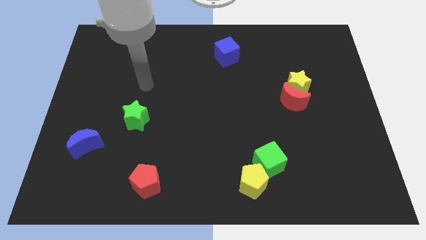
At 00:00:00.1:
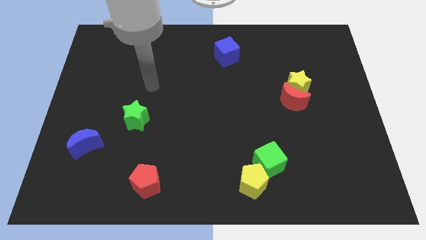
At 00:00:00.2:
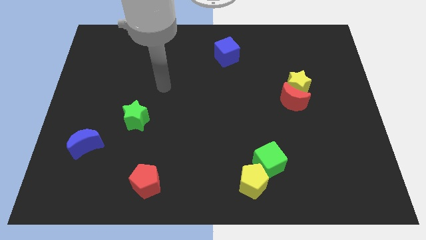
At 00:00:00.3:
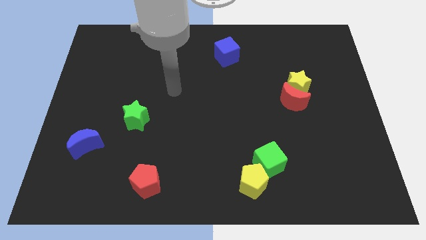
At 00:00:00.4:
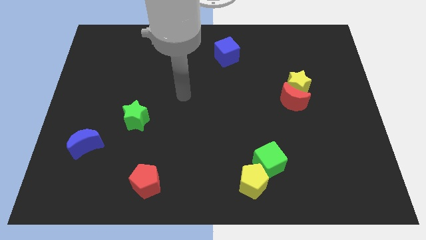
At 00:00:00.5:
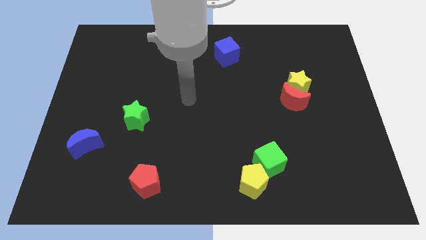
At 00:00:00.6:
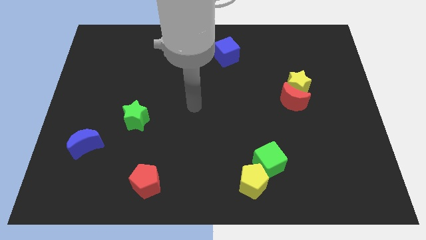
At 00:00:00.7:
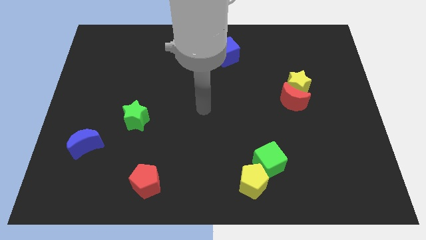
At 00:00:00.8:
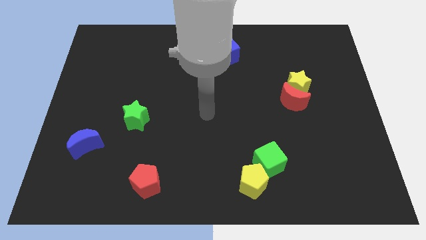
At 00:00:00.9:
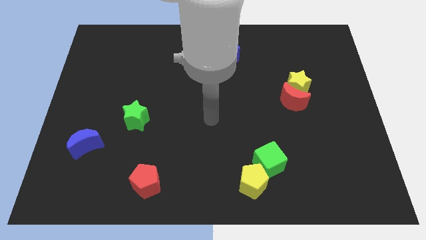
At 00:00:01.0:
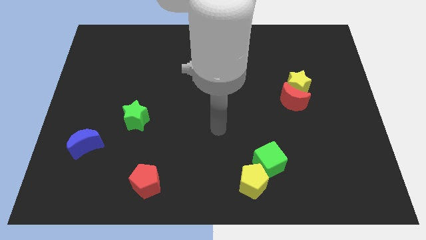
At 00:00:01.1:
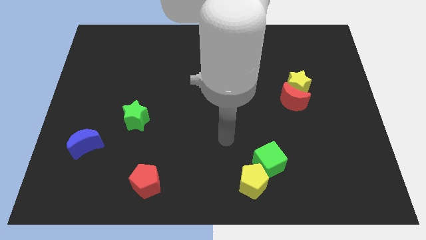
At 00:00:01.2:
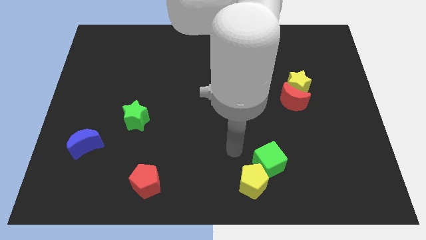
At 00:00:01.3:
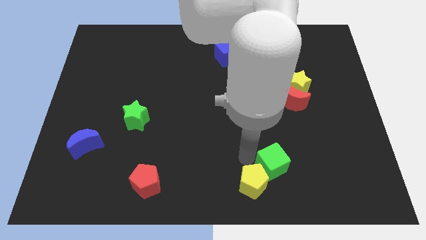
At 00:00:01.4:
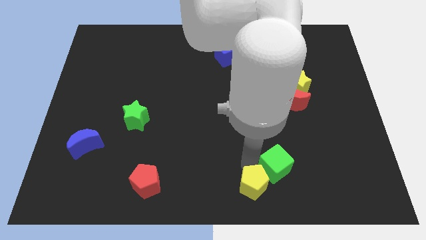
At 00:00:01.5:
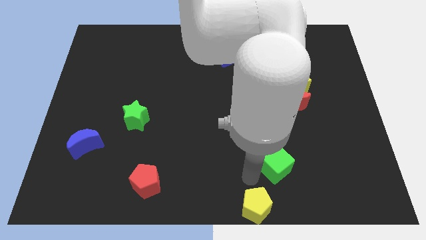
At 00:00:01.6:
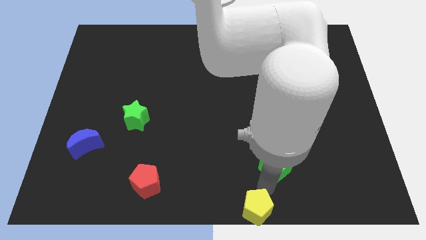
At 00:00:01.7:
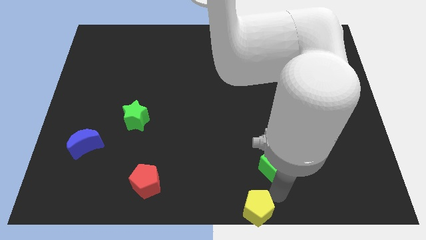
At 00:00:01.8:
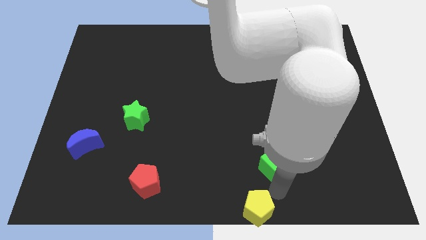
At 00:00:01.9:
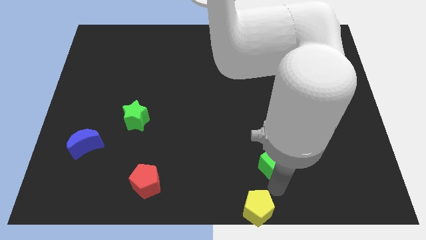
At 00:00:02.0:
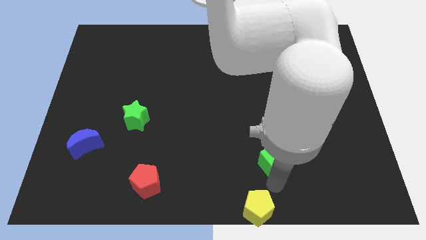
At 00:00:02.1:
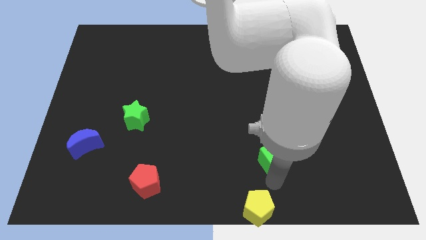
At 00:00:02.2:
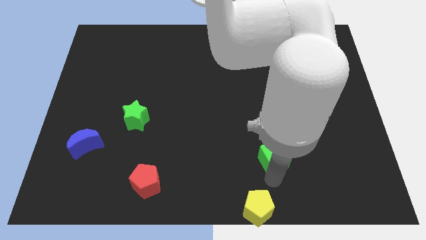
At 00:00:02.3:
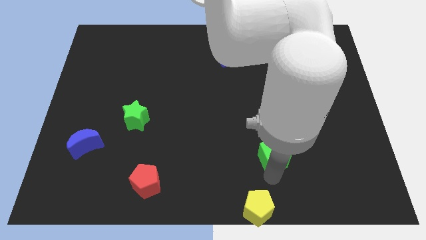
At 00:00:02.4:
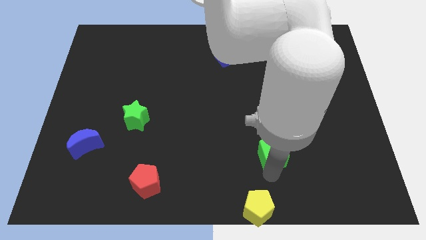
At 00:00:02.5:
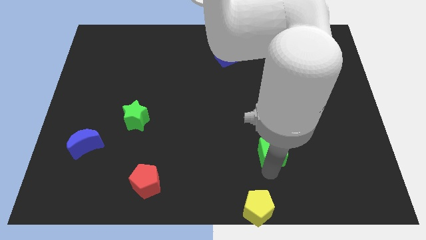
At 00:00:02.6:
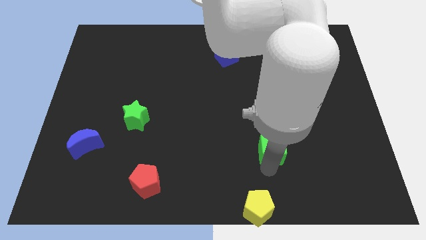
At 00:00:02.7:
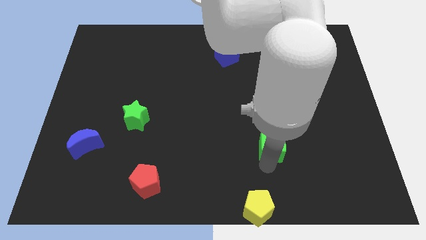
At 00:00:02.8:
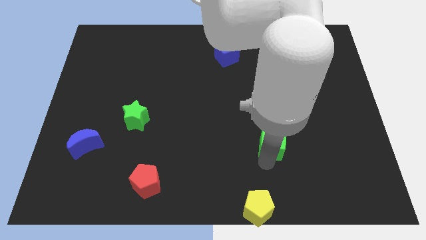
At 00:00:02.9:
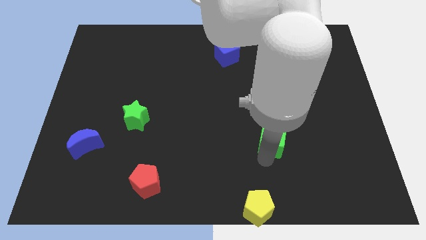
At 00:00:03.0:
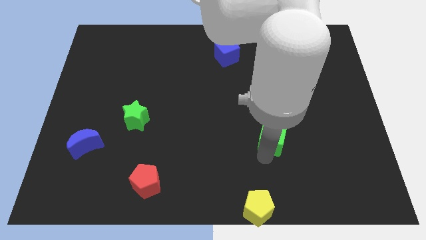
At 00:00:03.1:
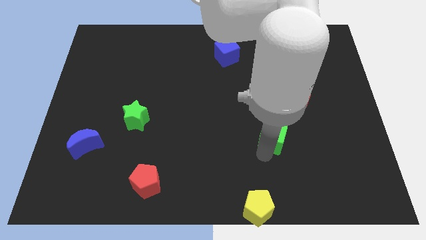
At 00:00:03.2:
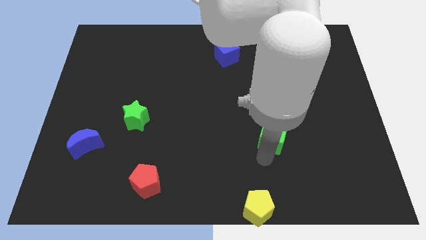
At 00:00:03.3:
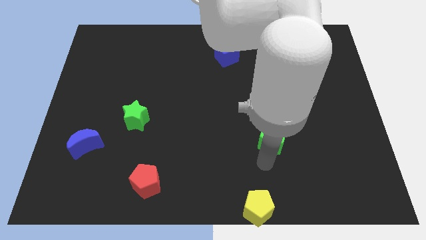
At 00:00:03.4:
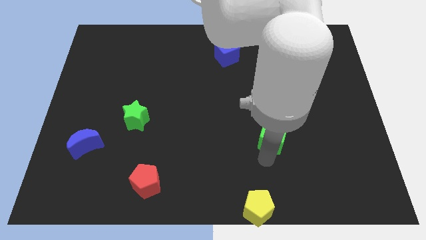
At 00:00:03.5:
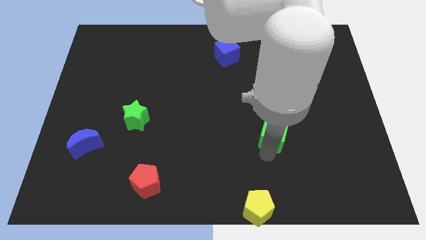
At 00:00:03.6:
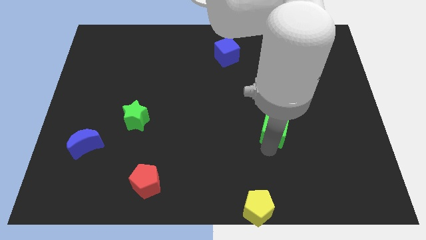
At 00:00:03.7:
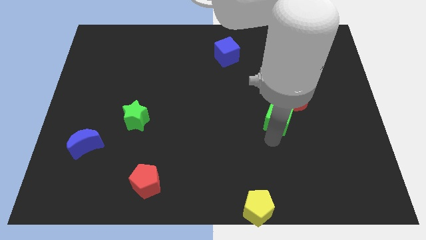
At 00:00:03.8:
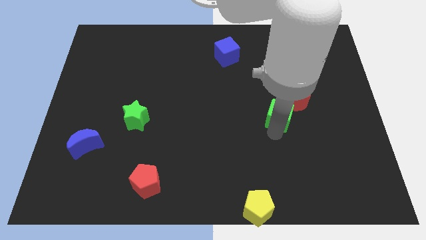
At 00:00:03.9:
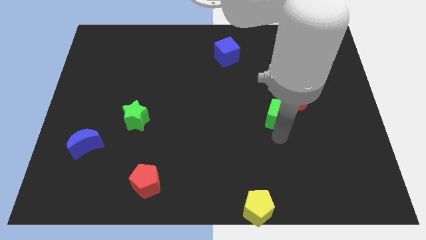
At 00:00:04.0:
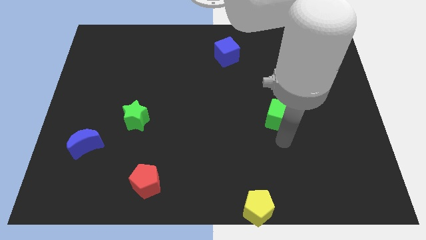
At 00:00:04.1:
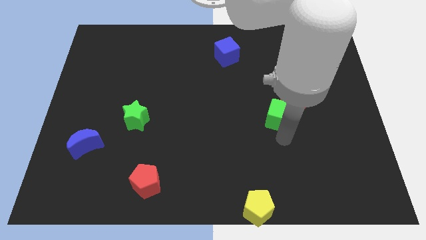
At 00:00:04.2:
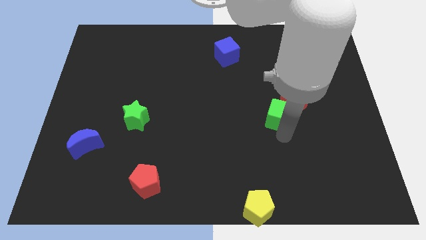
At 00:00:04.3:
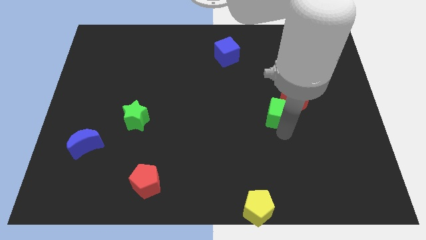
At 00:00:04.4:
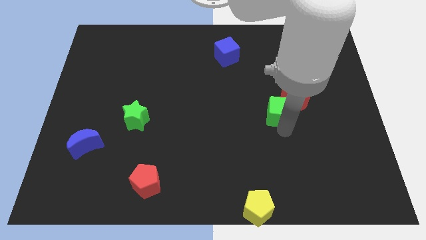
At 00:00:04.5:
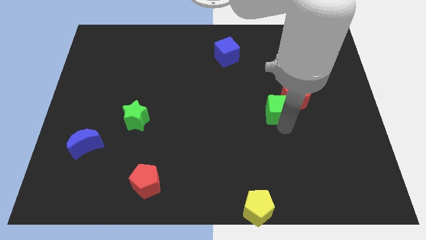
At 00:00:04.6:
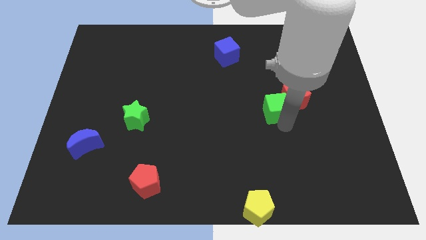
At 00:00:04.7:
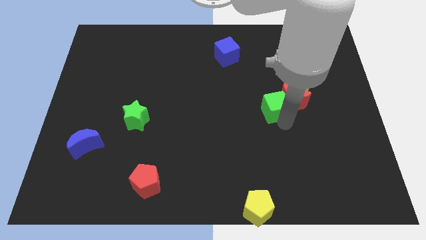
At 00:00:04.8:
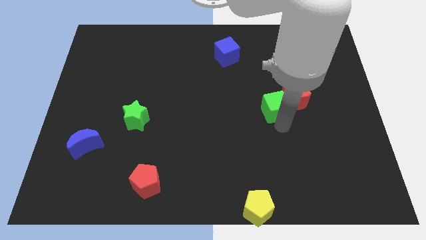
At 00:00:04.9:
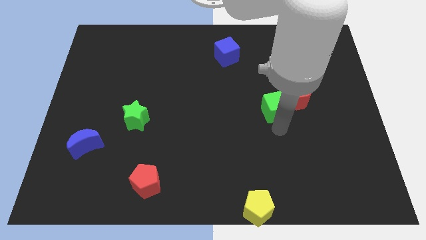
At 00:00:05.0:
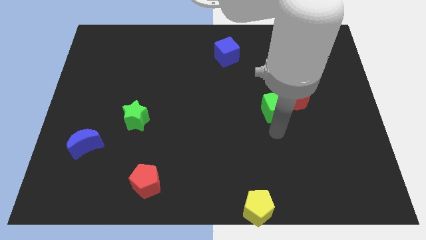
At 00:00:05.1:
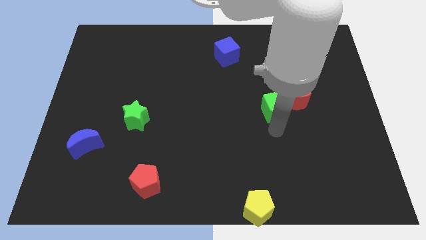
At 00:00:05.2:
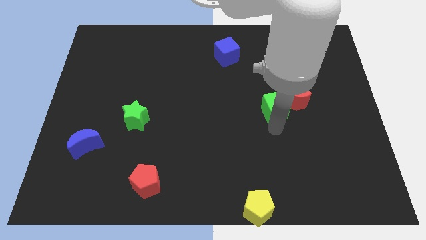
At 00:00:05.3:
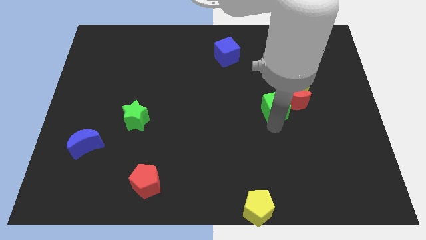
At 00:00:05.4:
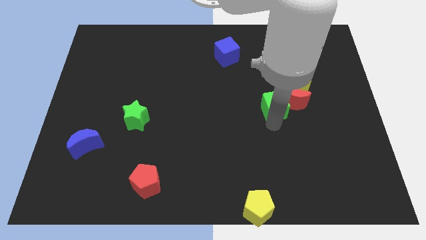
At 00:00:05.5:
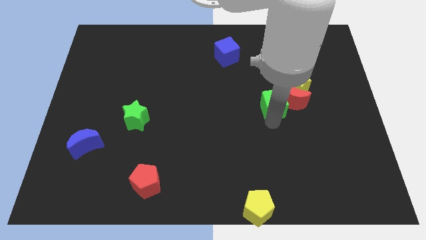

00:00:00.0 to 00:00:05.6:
slide the green cube to the top left side of the red moon

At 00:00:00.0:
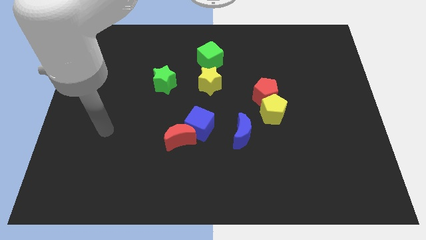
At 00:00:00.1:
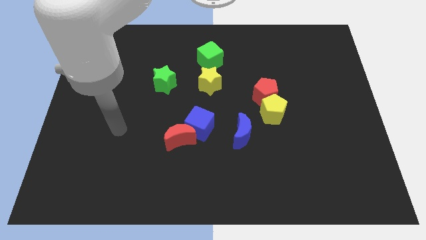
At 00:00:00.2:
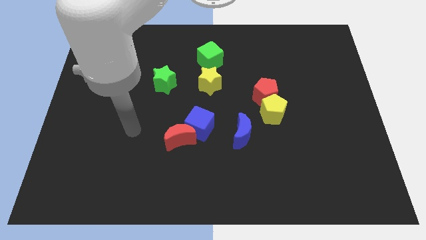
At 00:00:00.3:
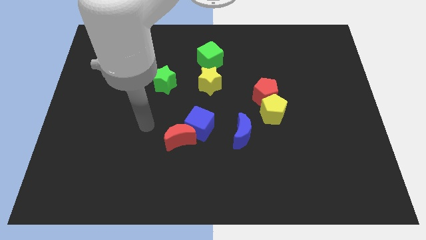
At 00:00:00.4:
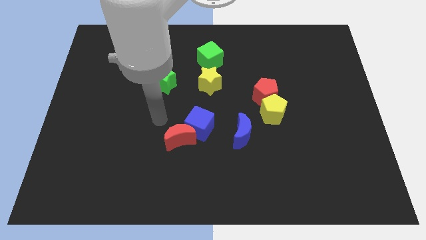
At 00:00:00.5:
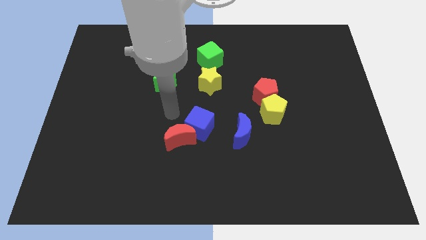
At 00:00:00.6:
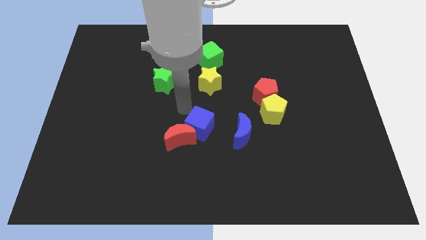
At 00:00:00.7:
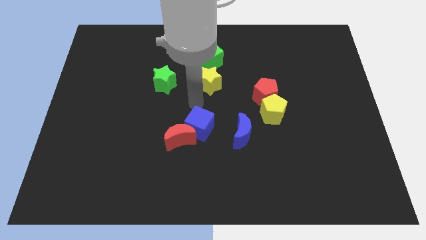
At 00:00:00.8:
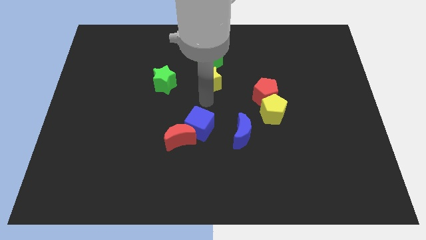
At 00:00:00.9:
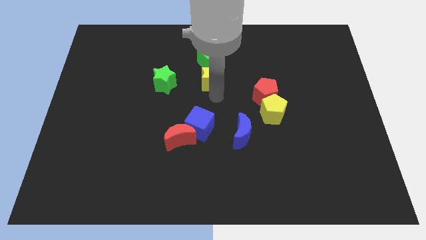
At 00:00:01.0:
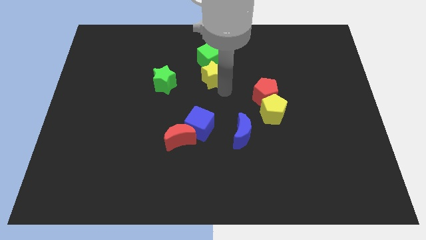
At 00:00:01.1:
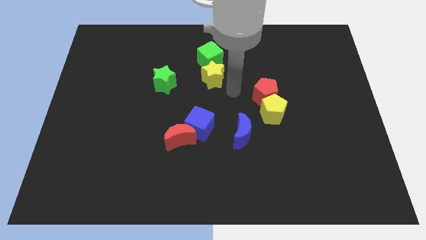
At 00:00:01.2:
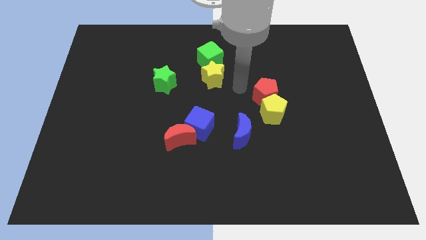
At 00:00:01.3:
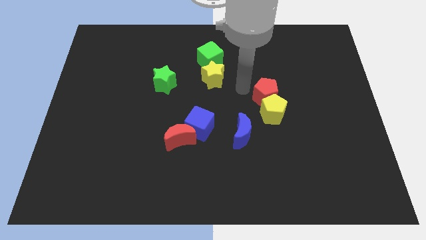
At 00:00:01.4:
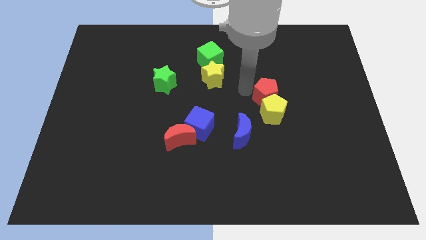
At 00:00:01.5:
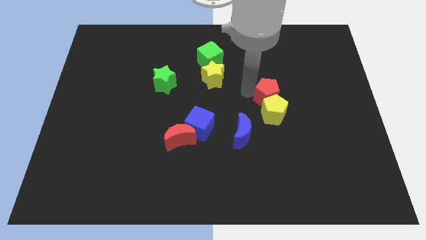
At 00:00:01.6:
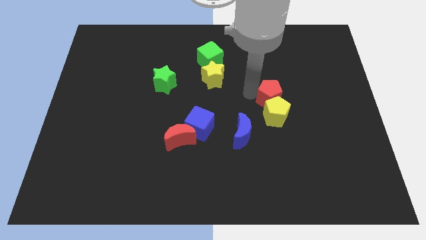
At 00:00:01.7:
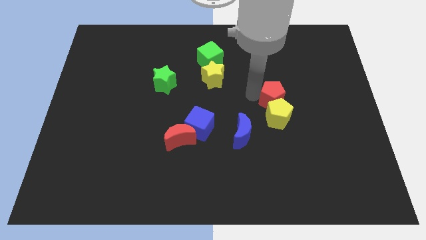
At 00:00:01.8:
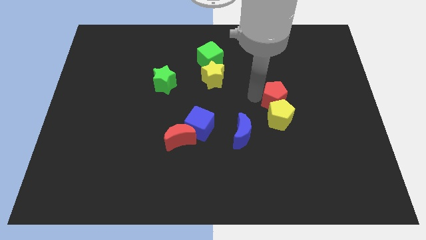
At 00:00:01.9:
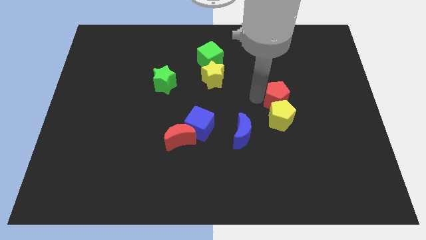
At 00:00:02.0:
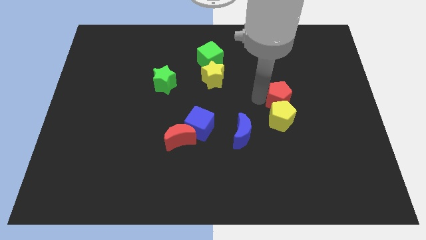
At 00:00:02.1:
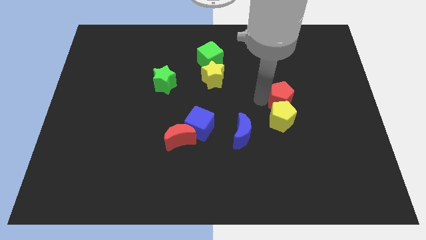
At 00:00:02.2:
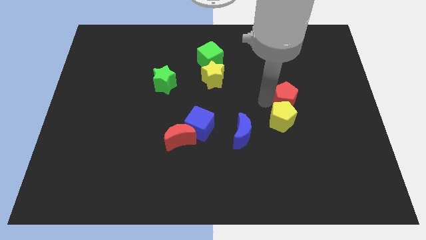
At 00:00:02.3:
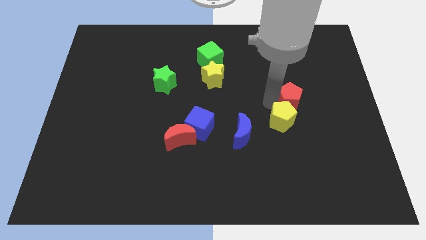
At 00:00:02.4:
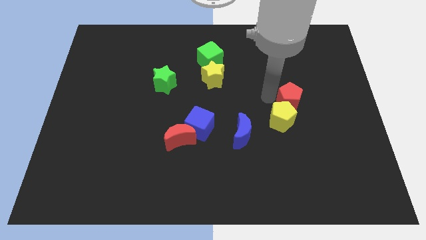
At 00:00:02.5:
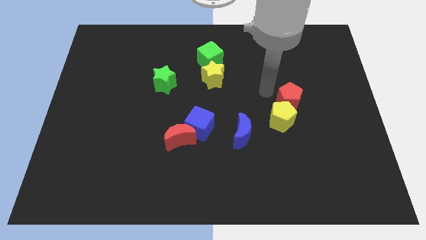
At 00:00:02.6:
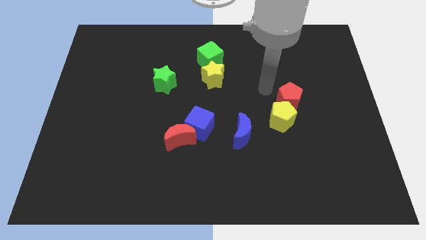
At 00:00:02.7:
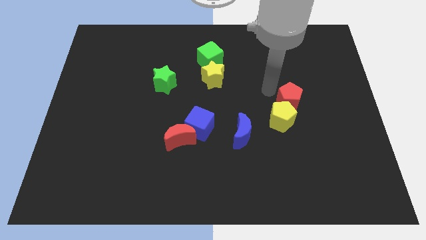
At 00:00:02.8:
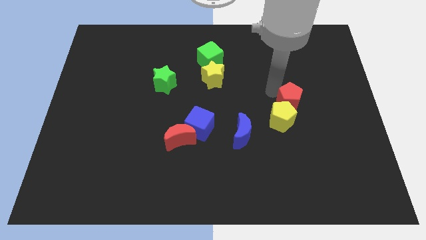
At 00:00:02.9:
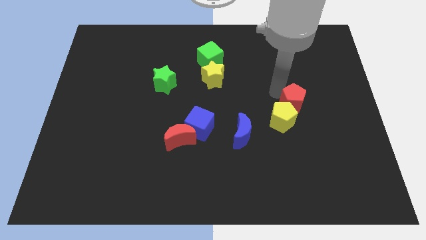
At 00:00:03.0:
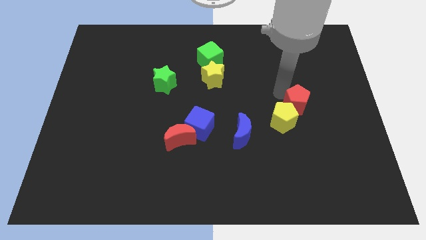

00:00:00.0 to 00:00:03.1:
push the red pentagon to the right side of the yellow pentagon
